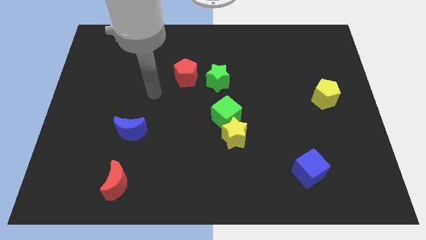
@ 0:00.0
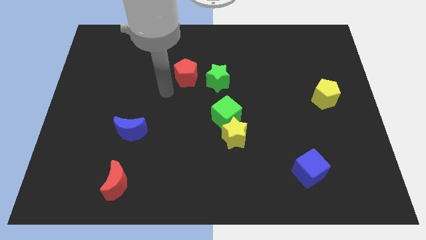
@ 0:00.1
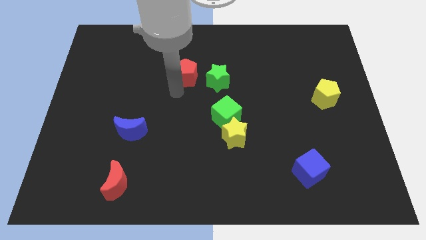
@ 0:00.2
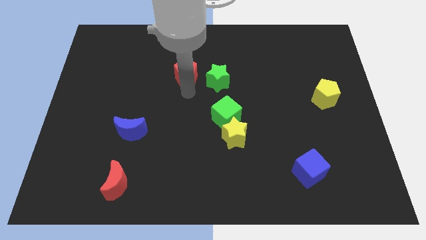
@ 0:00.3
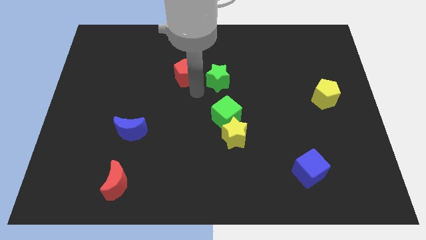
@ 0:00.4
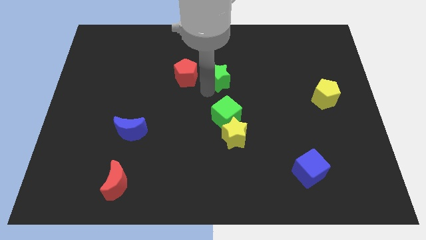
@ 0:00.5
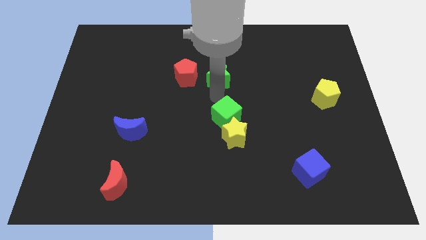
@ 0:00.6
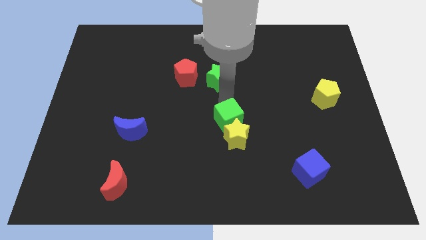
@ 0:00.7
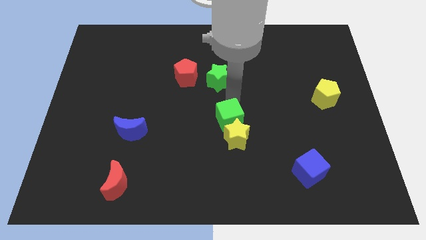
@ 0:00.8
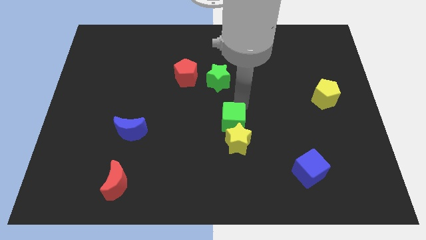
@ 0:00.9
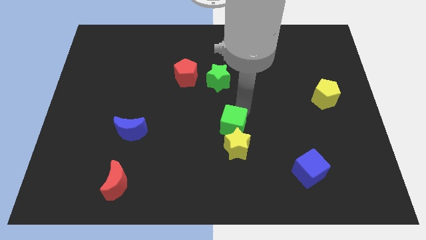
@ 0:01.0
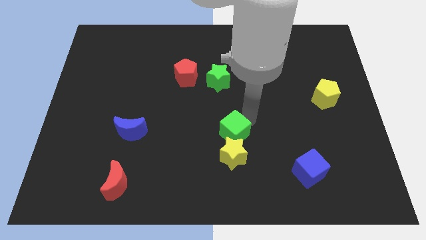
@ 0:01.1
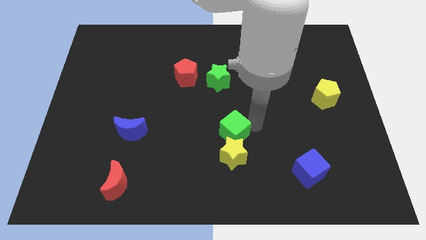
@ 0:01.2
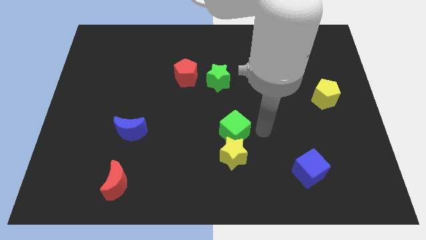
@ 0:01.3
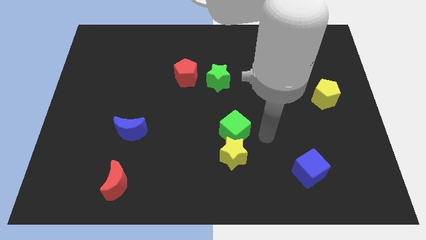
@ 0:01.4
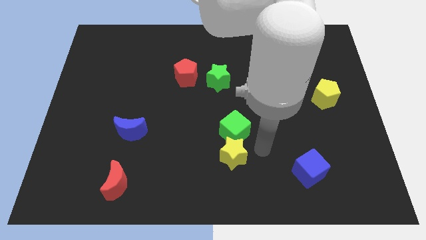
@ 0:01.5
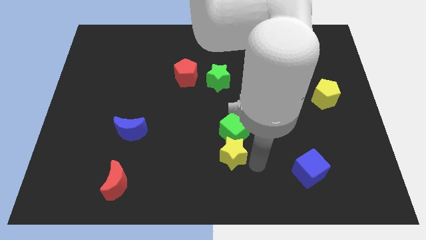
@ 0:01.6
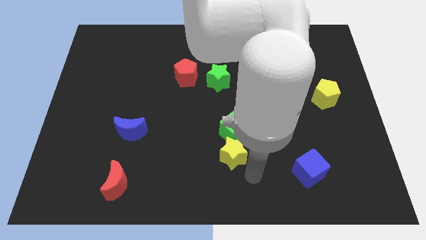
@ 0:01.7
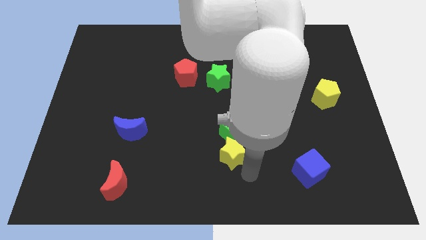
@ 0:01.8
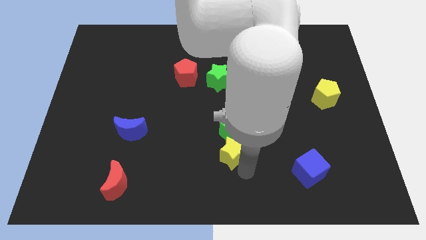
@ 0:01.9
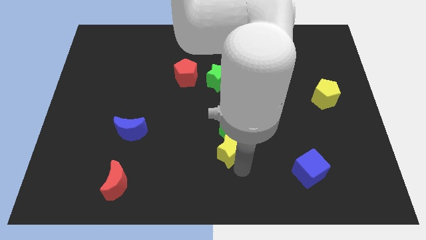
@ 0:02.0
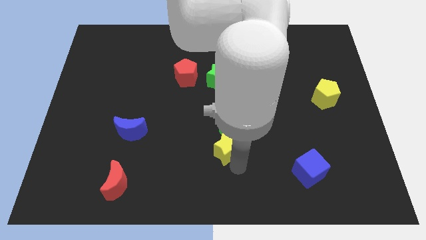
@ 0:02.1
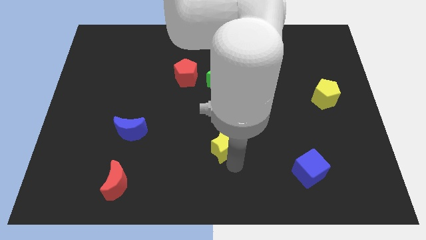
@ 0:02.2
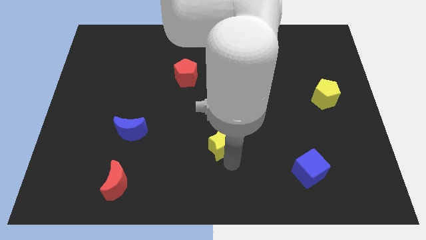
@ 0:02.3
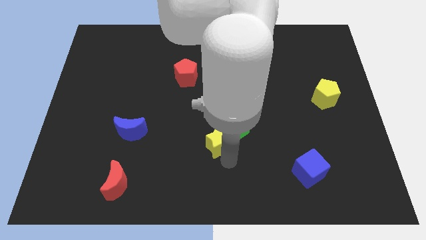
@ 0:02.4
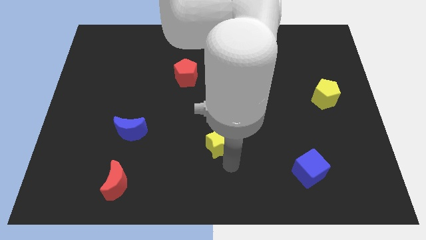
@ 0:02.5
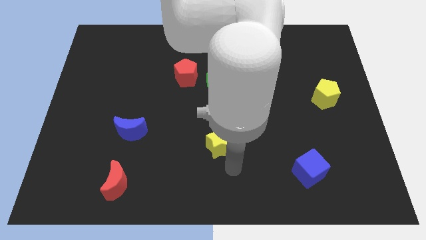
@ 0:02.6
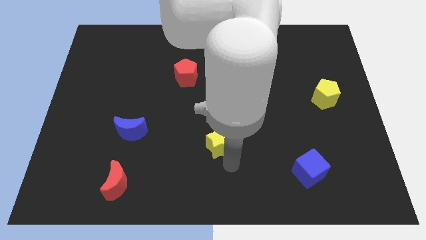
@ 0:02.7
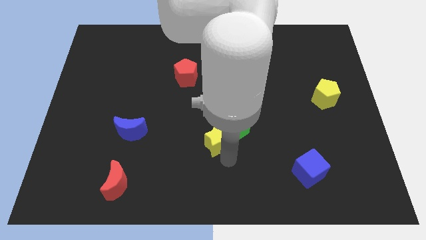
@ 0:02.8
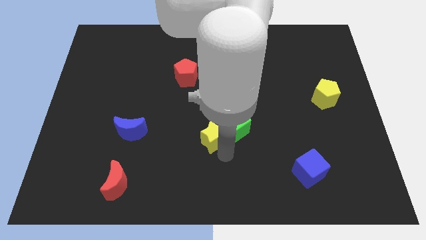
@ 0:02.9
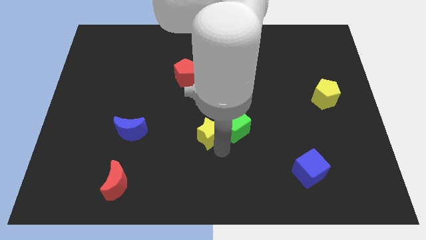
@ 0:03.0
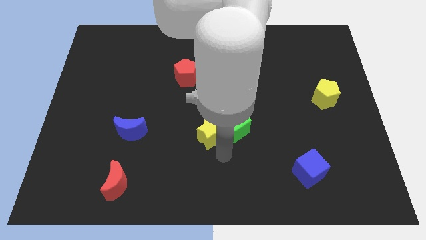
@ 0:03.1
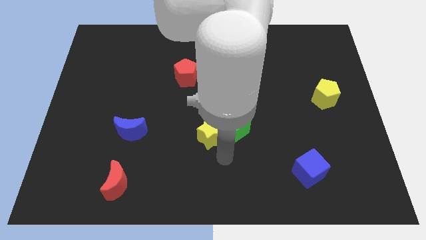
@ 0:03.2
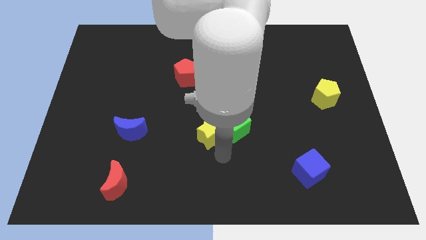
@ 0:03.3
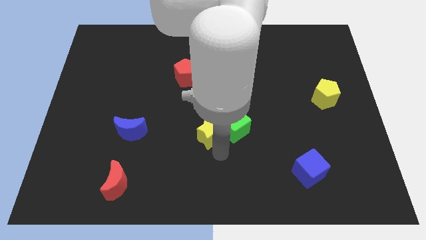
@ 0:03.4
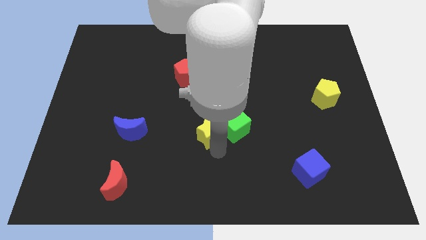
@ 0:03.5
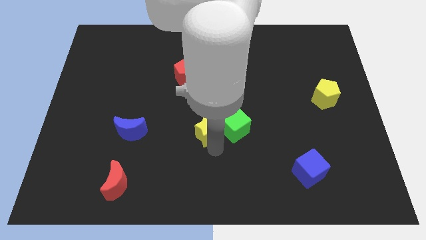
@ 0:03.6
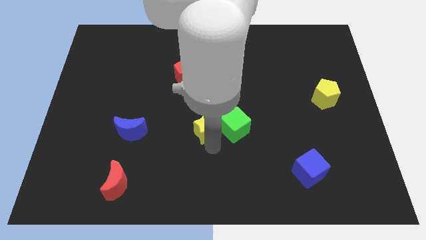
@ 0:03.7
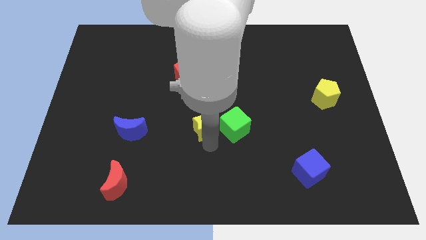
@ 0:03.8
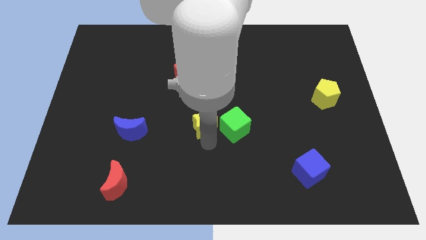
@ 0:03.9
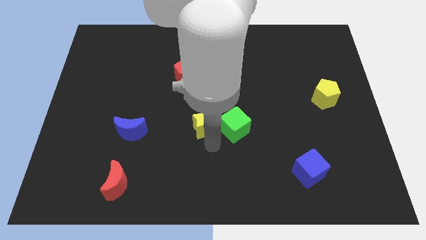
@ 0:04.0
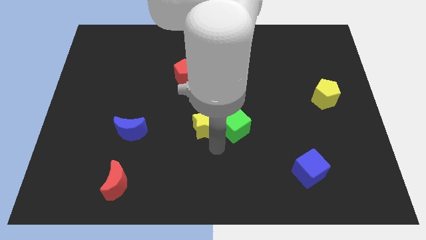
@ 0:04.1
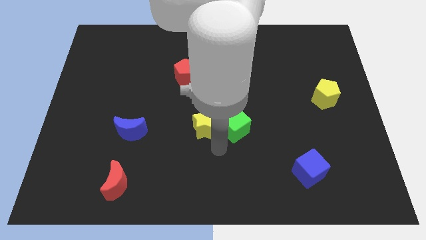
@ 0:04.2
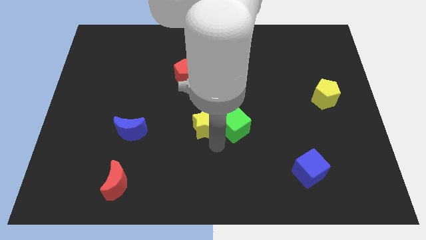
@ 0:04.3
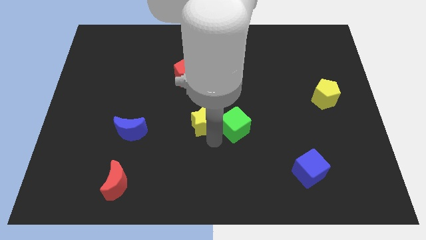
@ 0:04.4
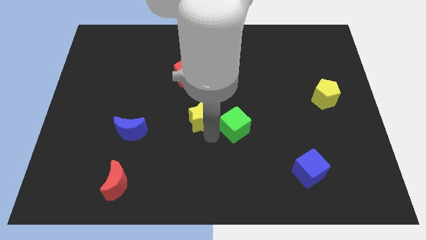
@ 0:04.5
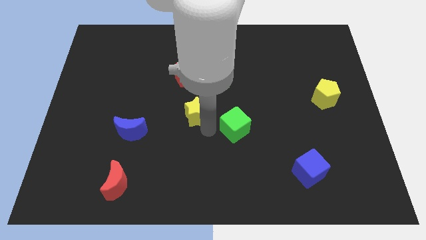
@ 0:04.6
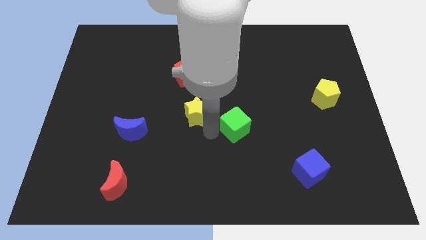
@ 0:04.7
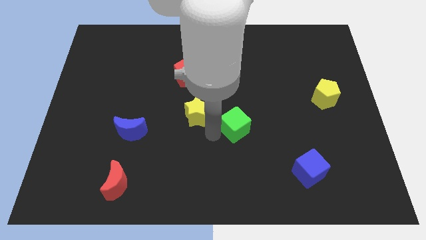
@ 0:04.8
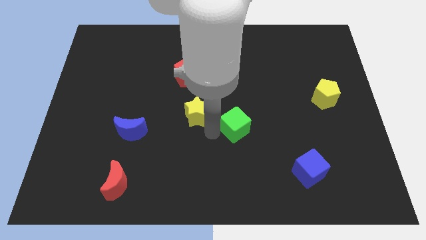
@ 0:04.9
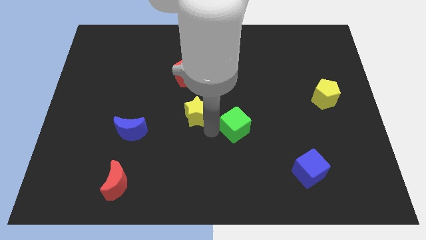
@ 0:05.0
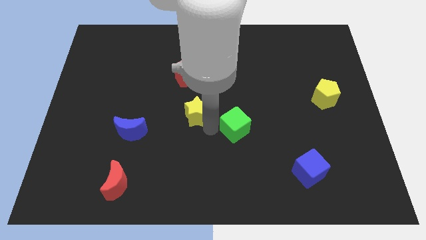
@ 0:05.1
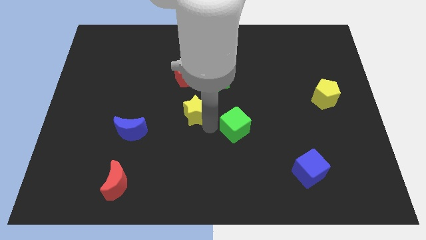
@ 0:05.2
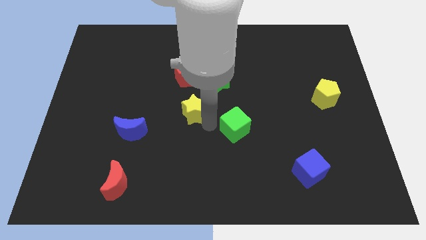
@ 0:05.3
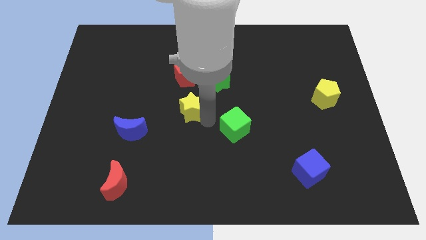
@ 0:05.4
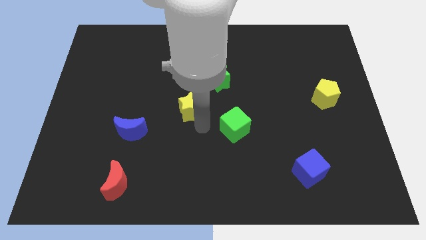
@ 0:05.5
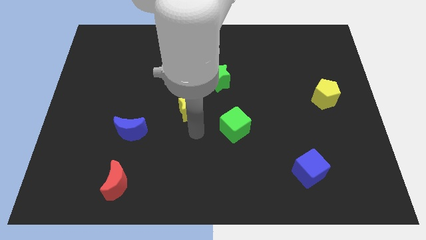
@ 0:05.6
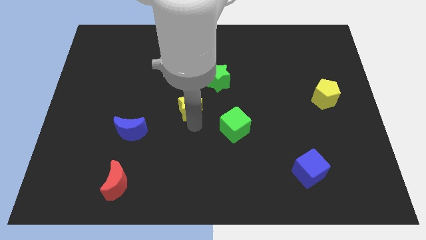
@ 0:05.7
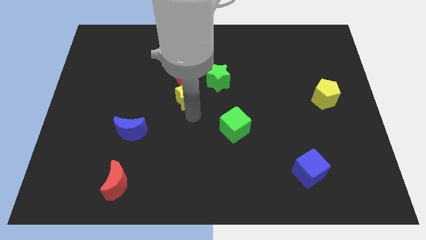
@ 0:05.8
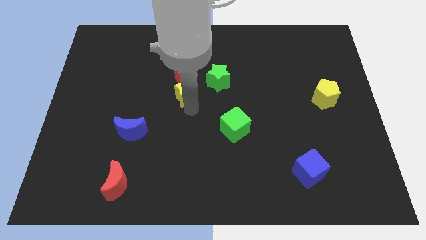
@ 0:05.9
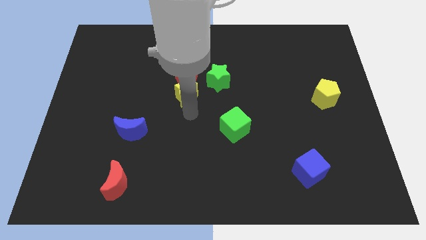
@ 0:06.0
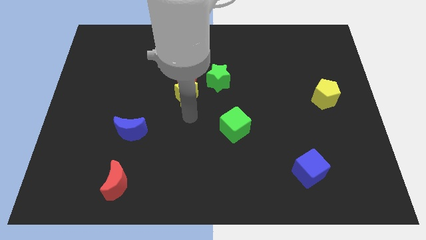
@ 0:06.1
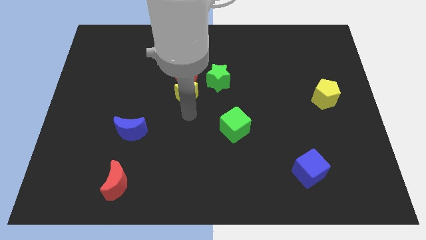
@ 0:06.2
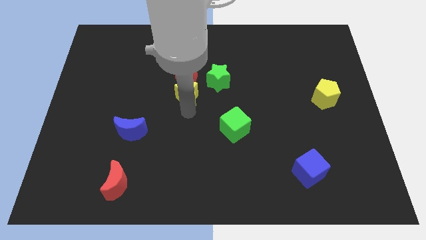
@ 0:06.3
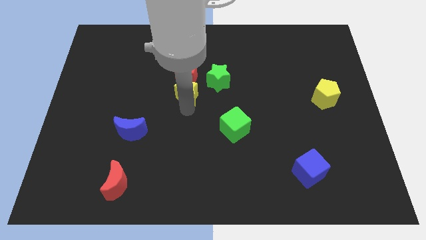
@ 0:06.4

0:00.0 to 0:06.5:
move the yellow star to the red pentagon

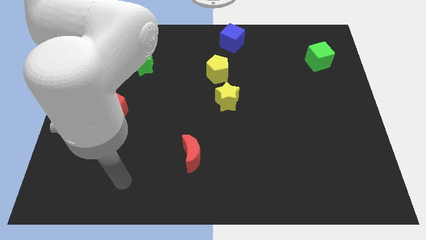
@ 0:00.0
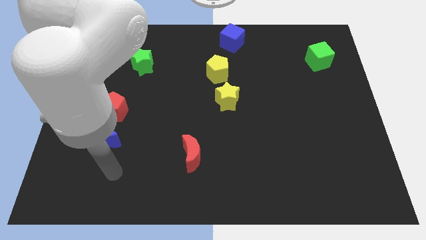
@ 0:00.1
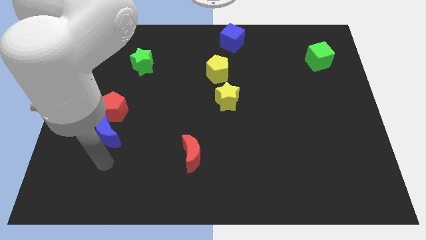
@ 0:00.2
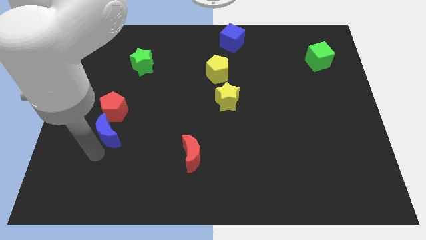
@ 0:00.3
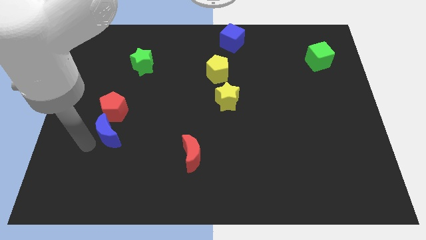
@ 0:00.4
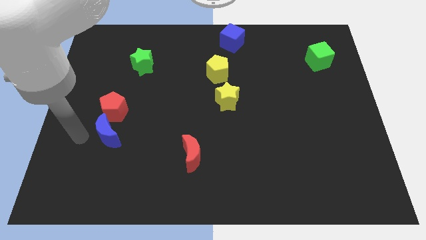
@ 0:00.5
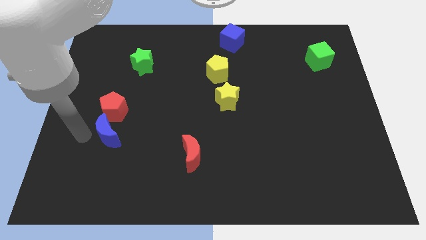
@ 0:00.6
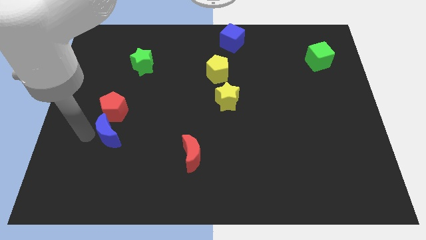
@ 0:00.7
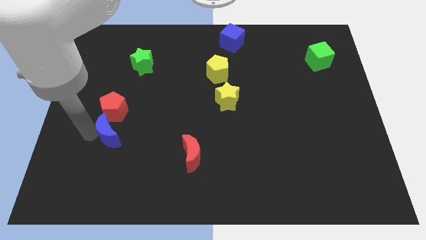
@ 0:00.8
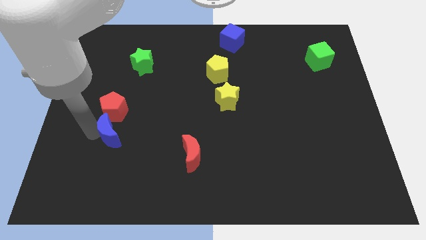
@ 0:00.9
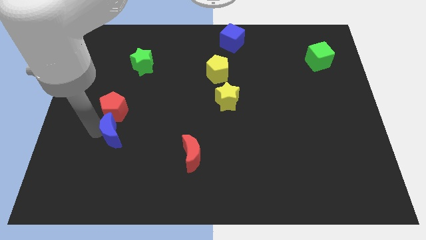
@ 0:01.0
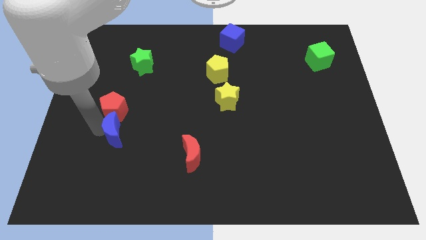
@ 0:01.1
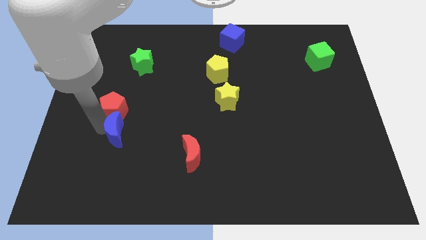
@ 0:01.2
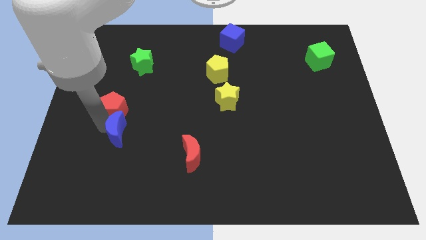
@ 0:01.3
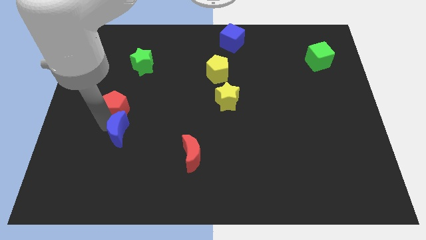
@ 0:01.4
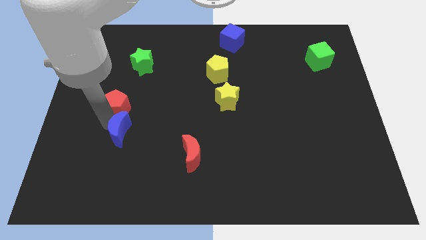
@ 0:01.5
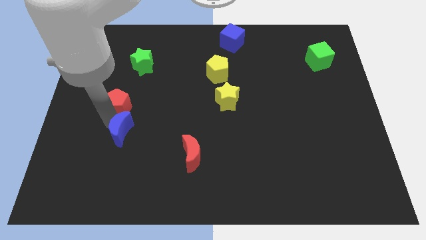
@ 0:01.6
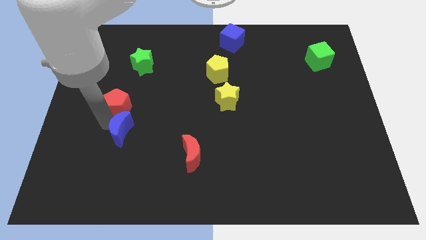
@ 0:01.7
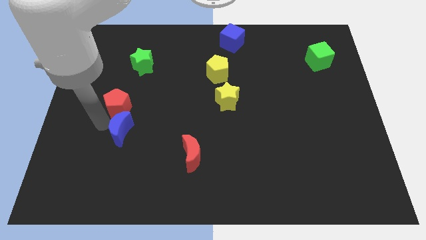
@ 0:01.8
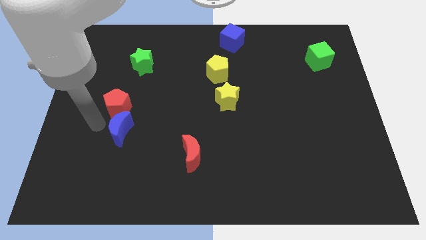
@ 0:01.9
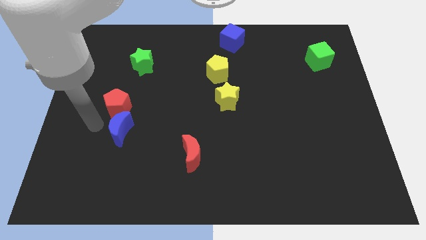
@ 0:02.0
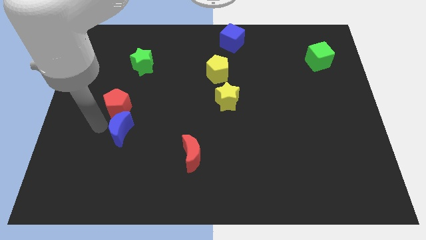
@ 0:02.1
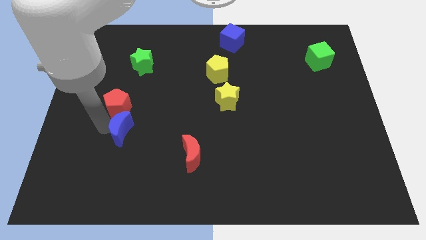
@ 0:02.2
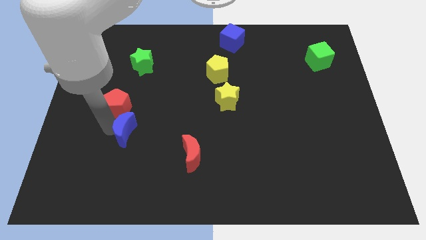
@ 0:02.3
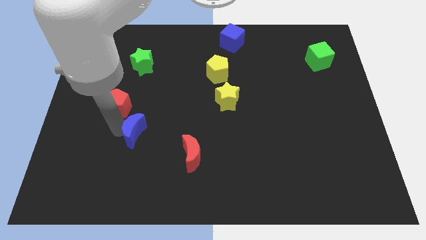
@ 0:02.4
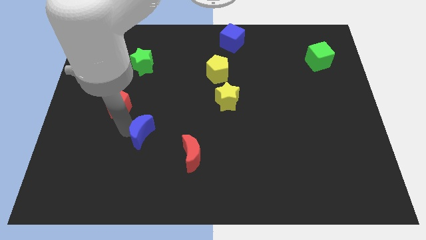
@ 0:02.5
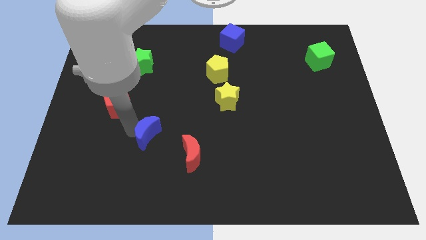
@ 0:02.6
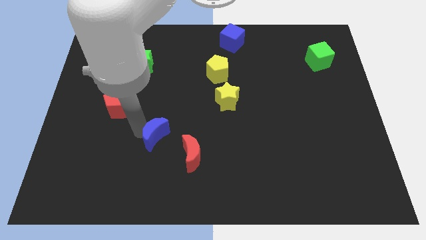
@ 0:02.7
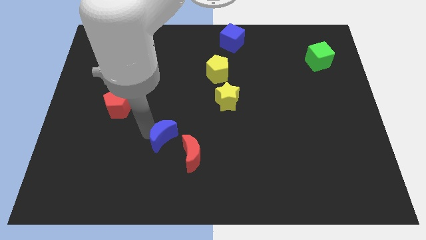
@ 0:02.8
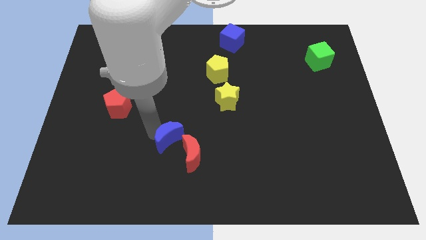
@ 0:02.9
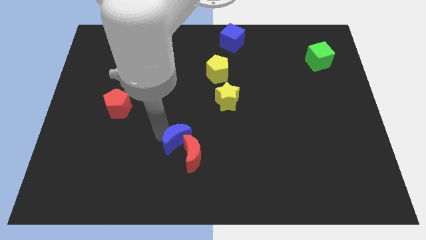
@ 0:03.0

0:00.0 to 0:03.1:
push the blue moon next to the red moon
